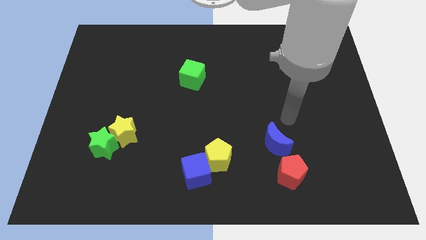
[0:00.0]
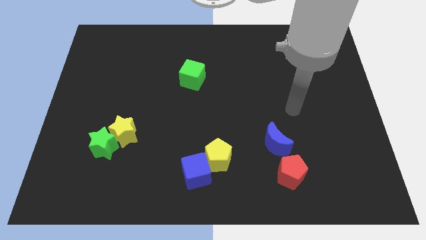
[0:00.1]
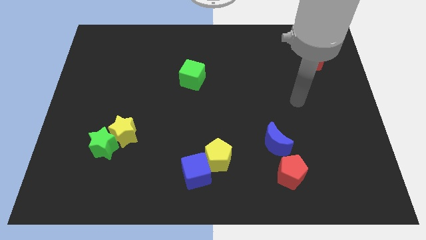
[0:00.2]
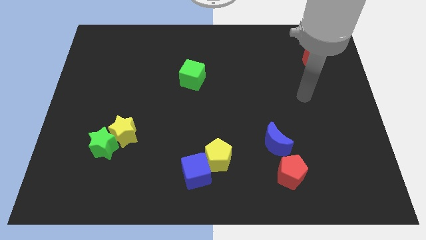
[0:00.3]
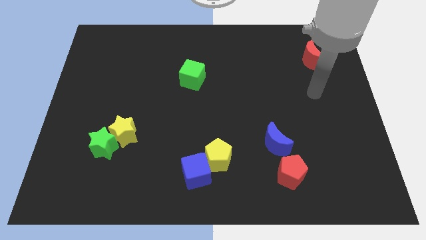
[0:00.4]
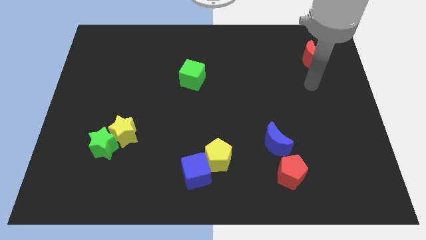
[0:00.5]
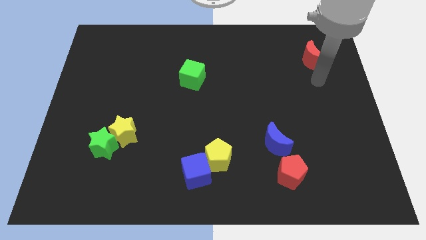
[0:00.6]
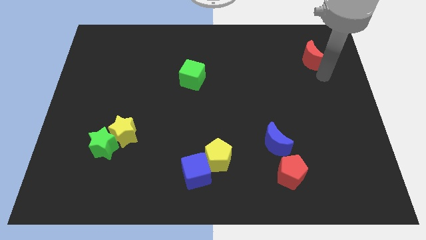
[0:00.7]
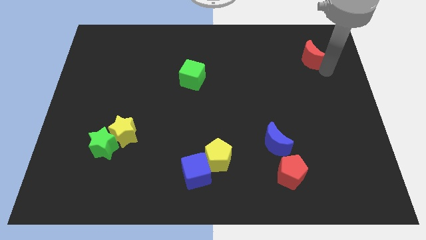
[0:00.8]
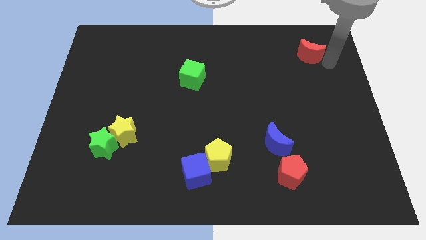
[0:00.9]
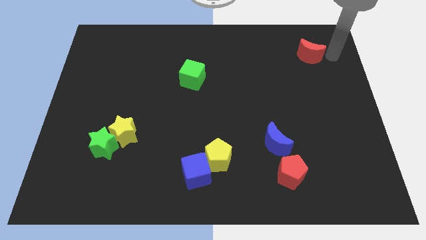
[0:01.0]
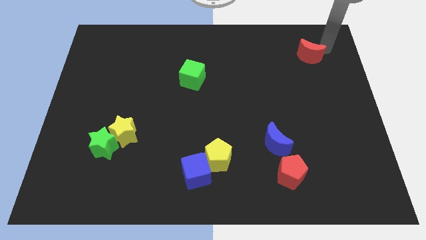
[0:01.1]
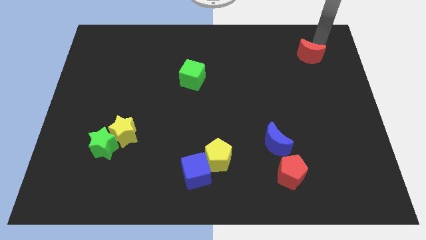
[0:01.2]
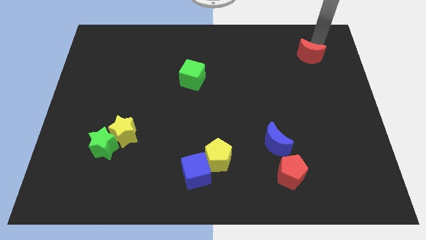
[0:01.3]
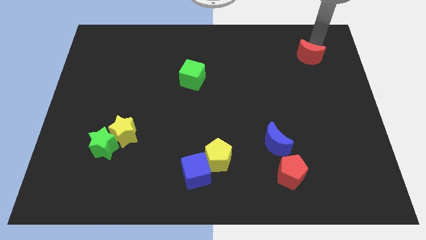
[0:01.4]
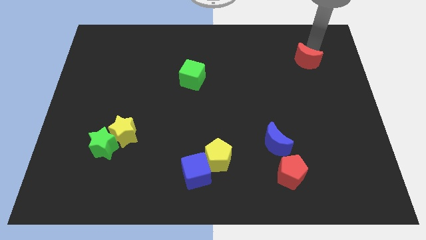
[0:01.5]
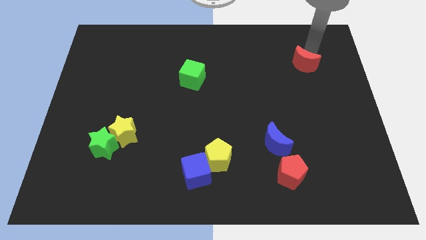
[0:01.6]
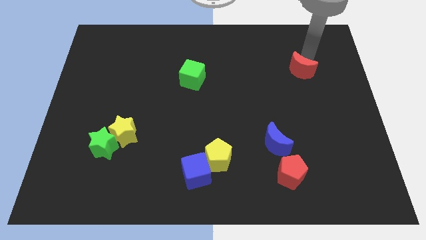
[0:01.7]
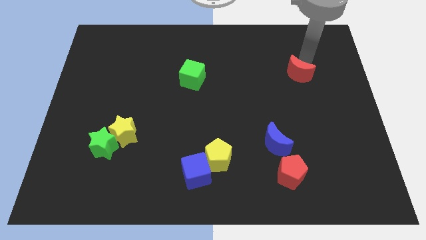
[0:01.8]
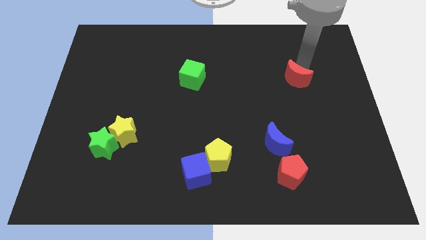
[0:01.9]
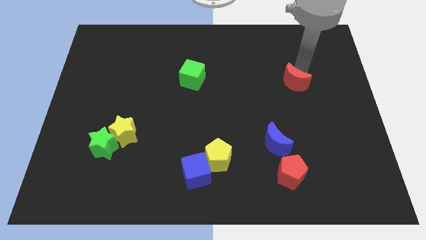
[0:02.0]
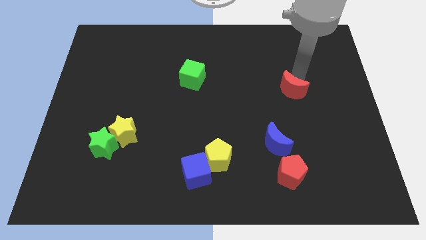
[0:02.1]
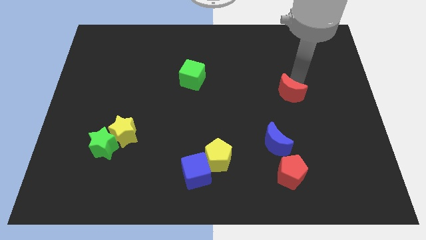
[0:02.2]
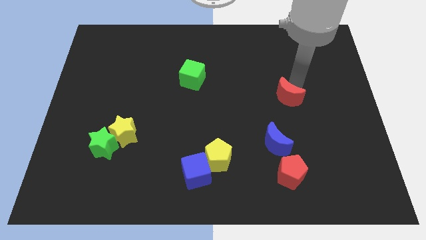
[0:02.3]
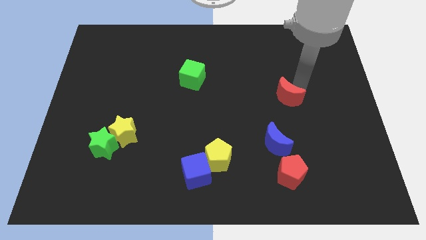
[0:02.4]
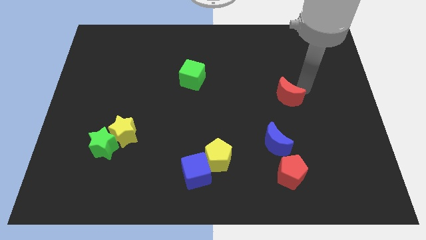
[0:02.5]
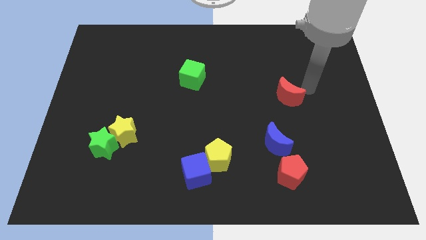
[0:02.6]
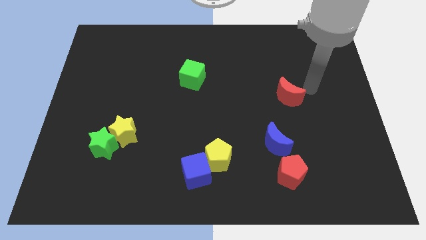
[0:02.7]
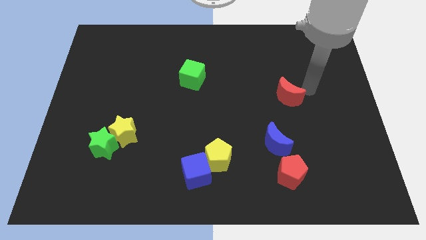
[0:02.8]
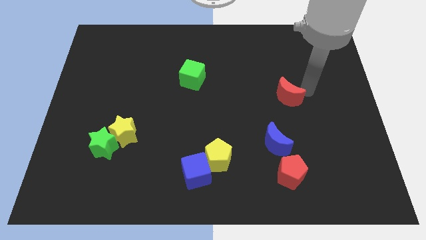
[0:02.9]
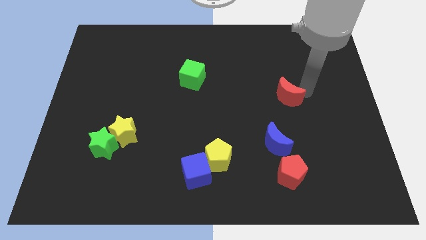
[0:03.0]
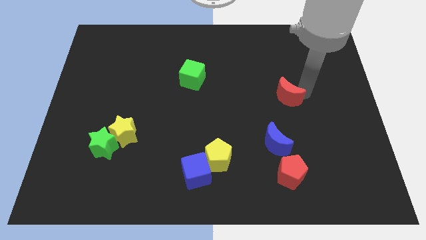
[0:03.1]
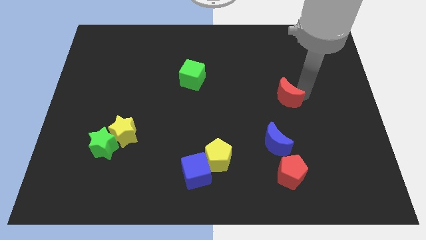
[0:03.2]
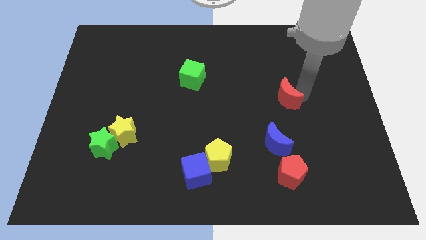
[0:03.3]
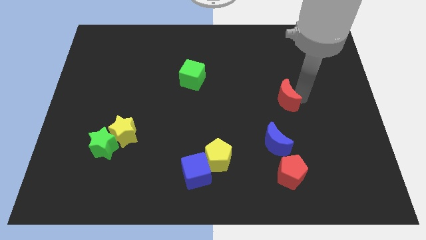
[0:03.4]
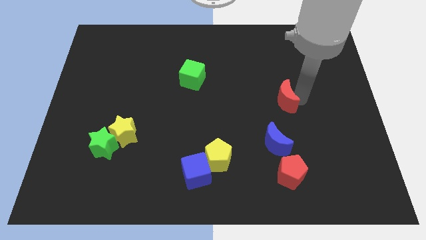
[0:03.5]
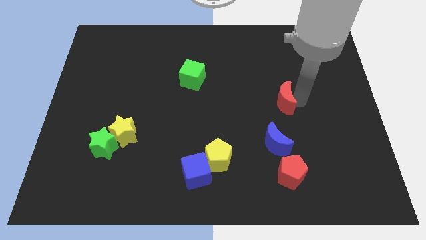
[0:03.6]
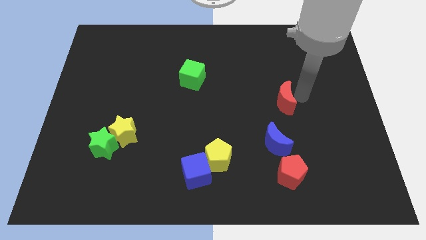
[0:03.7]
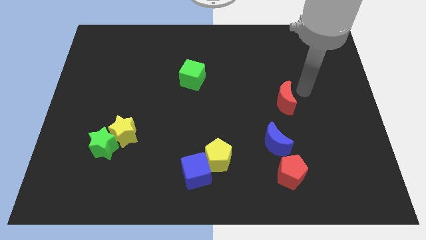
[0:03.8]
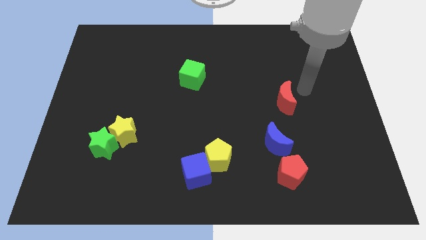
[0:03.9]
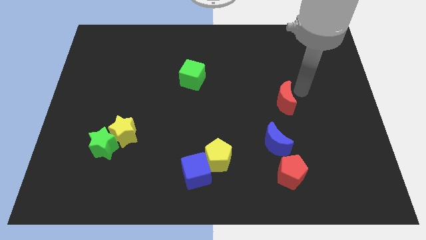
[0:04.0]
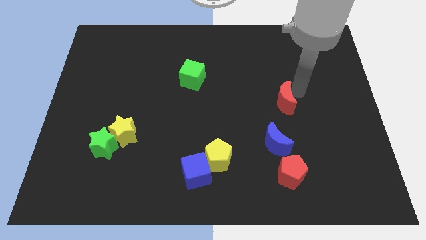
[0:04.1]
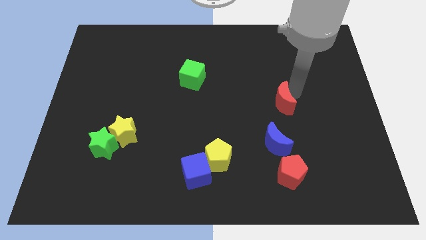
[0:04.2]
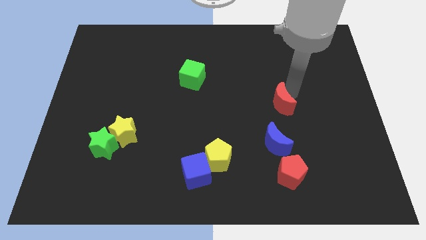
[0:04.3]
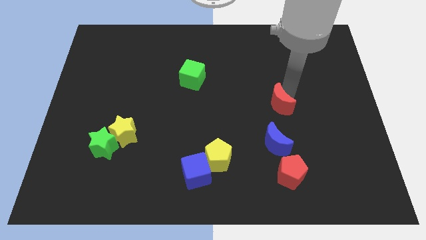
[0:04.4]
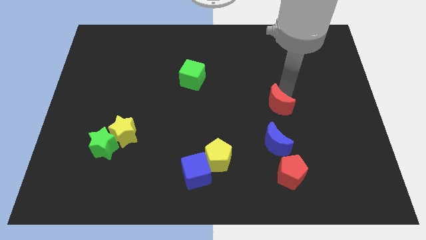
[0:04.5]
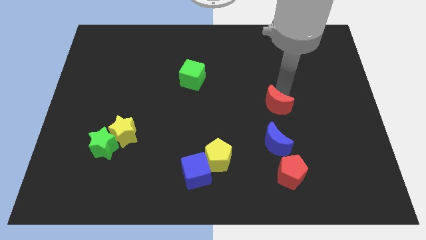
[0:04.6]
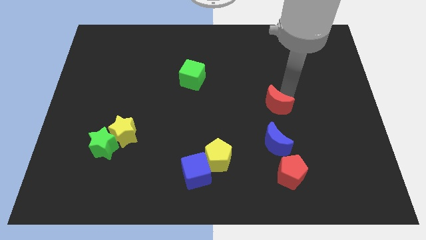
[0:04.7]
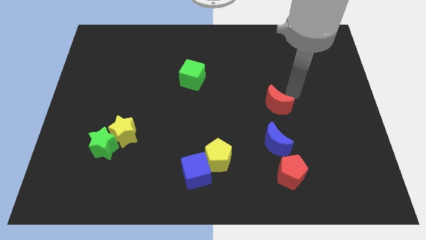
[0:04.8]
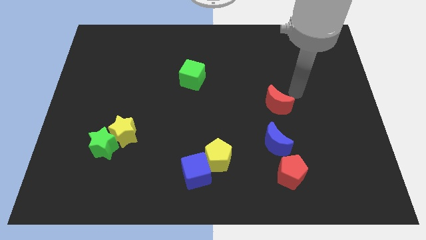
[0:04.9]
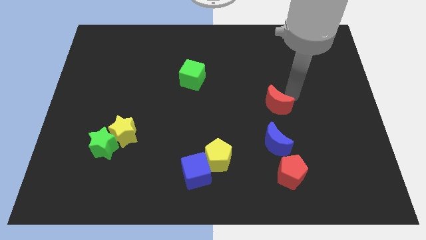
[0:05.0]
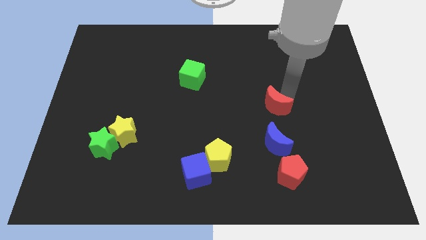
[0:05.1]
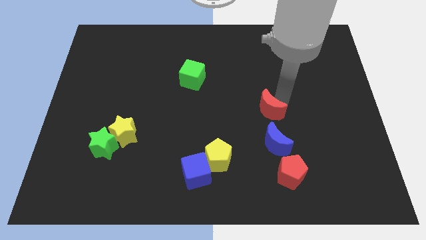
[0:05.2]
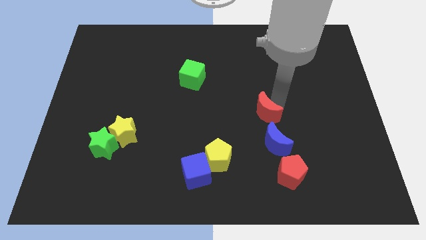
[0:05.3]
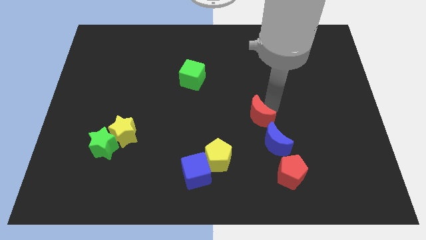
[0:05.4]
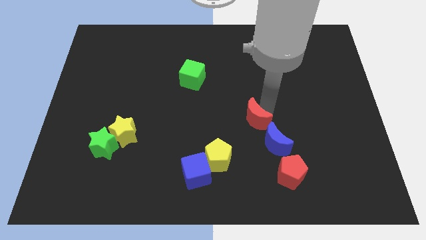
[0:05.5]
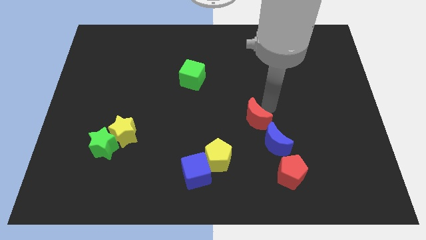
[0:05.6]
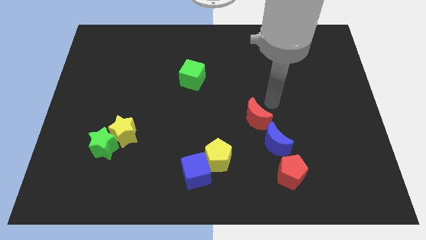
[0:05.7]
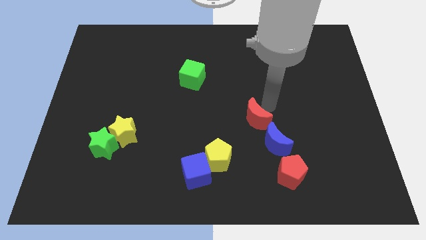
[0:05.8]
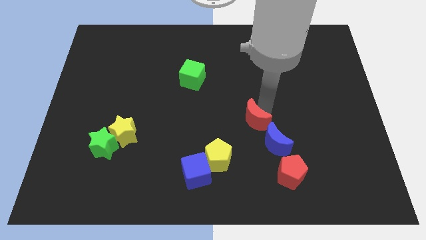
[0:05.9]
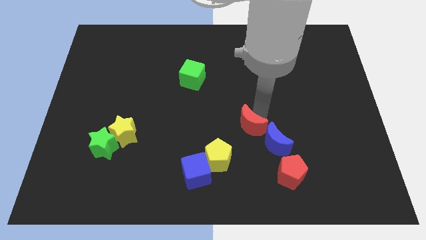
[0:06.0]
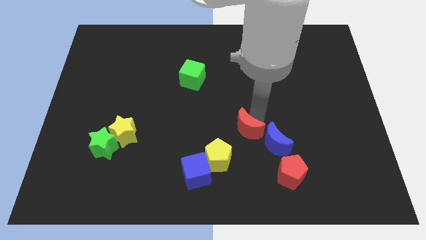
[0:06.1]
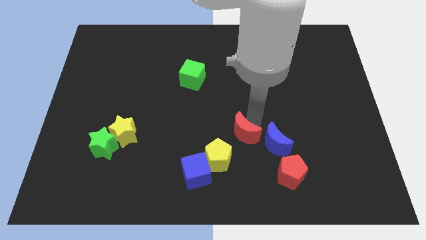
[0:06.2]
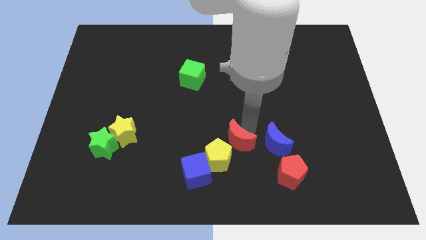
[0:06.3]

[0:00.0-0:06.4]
move the red moon next to the yellow pentagon
